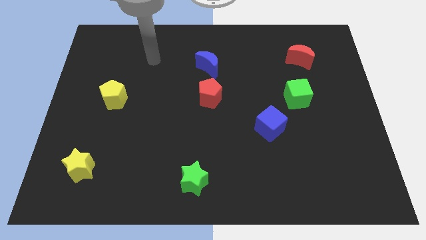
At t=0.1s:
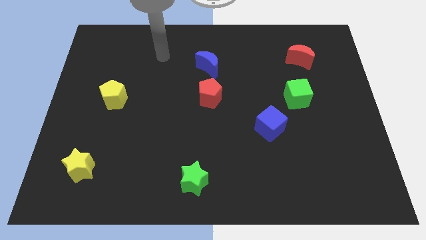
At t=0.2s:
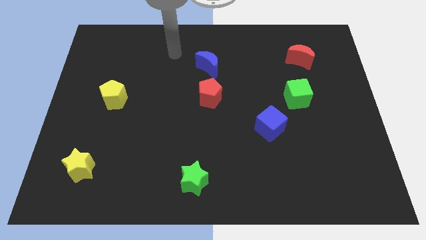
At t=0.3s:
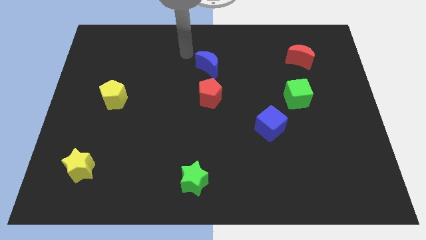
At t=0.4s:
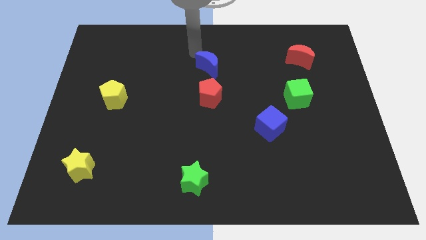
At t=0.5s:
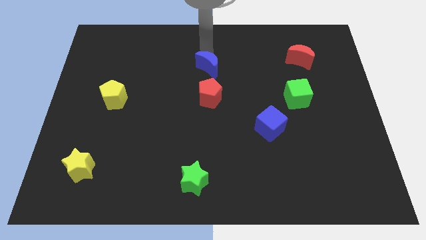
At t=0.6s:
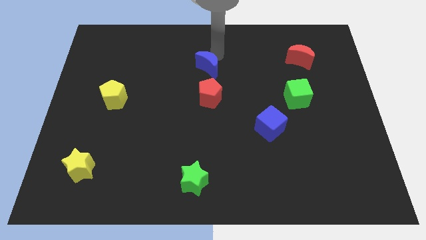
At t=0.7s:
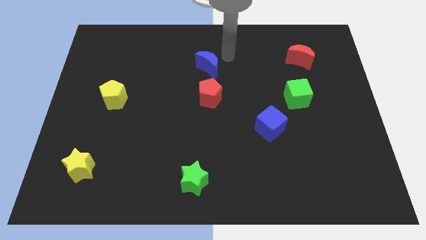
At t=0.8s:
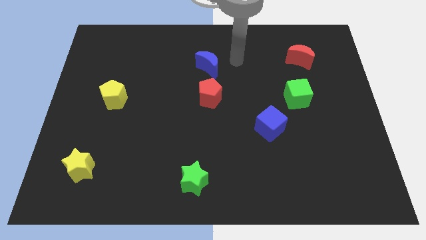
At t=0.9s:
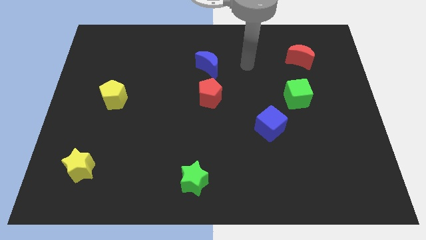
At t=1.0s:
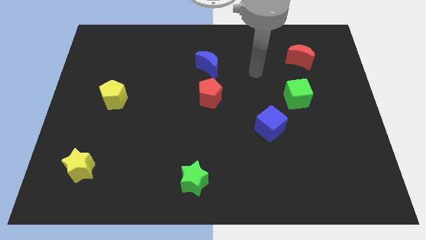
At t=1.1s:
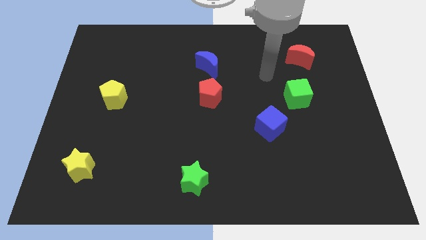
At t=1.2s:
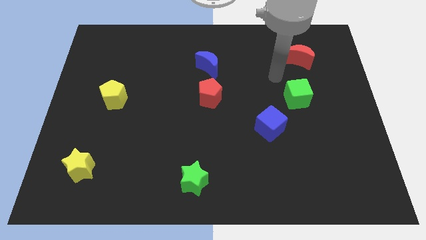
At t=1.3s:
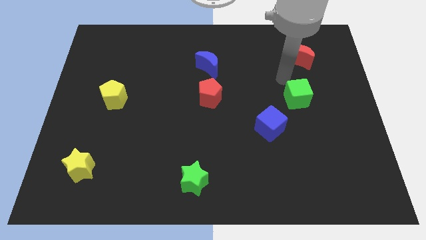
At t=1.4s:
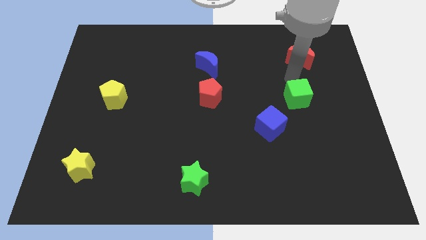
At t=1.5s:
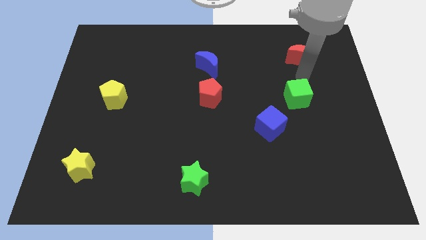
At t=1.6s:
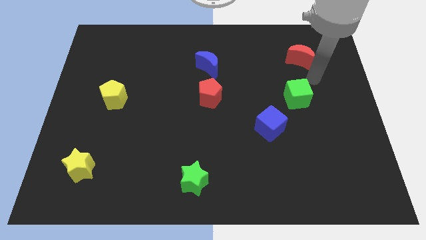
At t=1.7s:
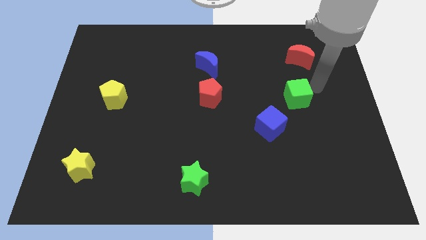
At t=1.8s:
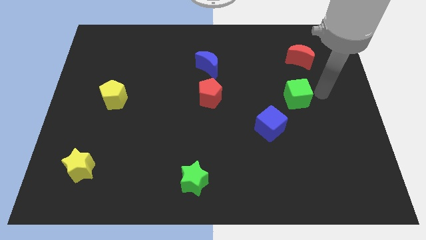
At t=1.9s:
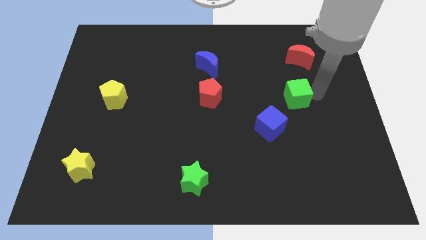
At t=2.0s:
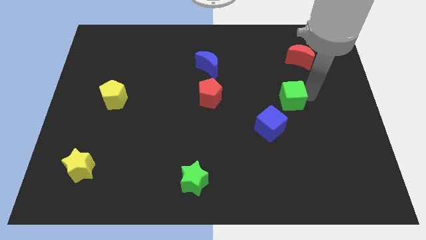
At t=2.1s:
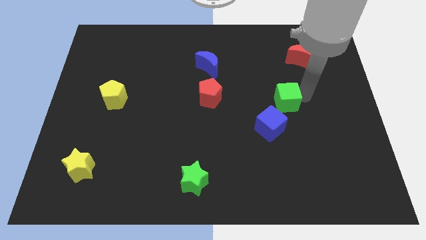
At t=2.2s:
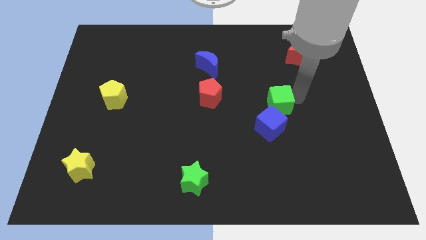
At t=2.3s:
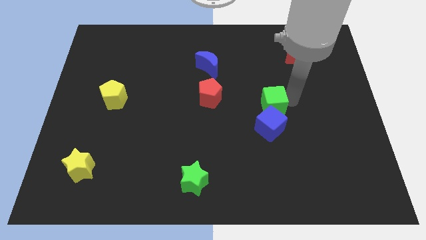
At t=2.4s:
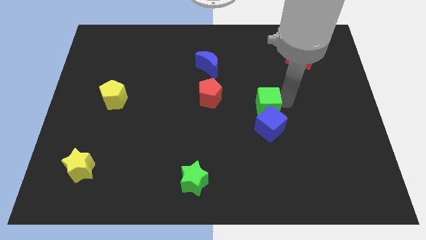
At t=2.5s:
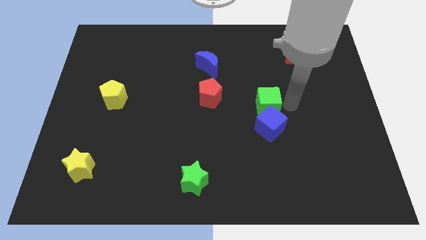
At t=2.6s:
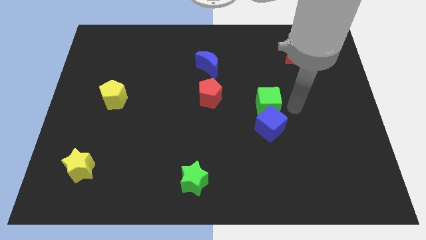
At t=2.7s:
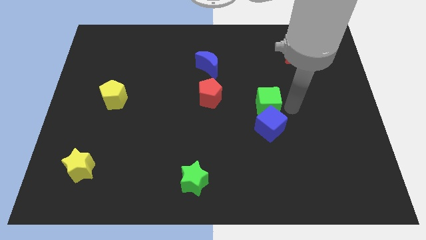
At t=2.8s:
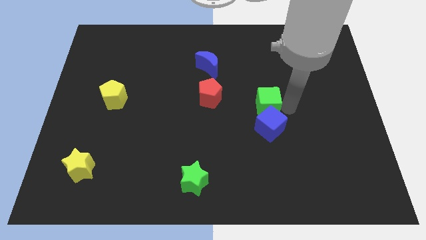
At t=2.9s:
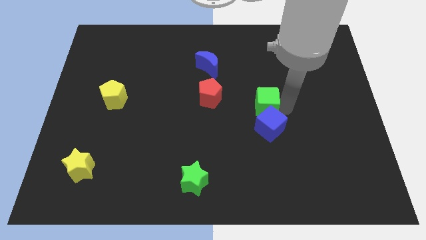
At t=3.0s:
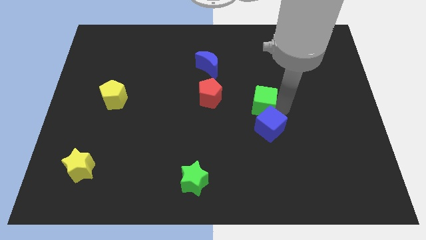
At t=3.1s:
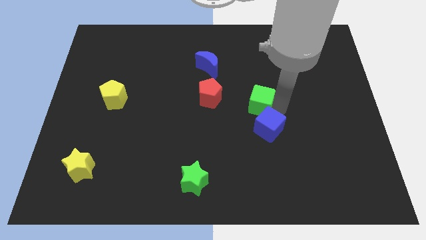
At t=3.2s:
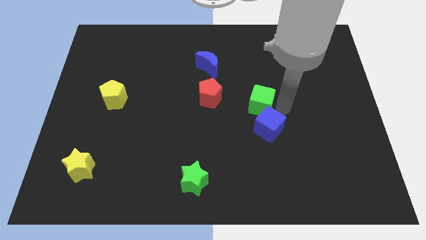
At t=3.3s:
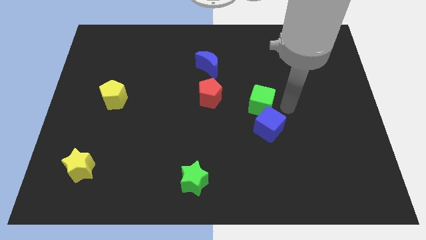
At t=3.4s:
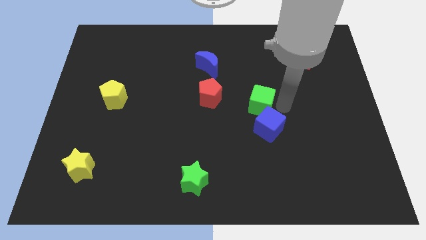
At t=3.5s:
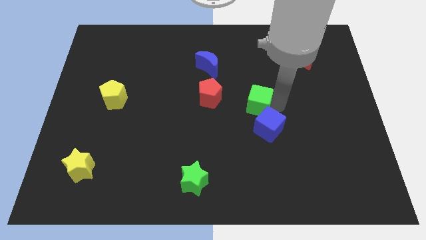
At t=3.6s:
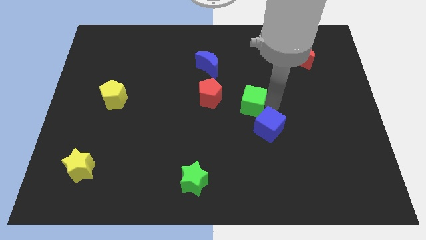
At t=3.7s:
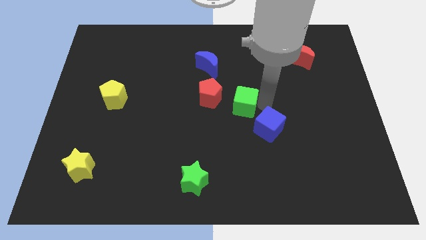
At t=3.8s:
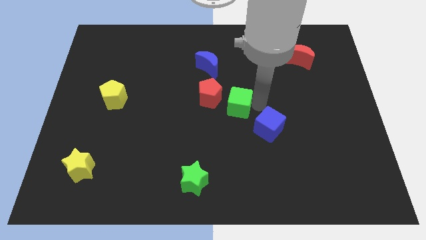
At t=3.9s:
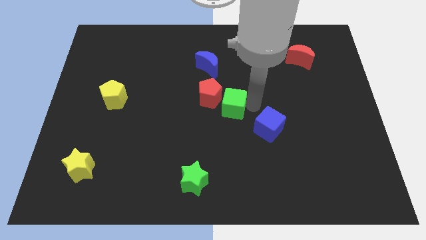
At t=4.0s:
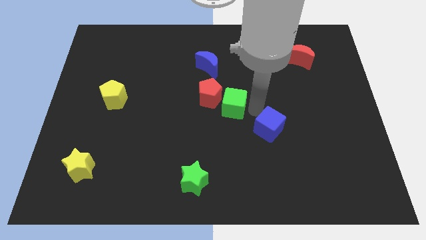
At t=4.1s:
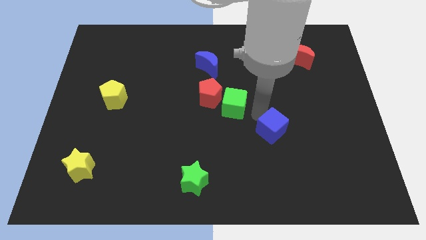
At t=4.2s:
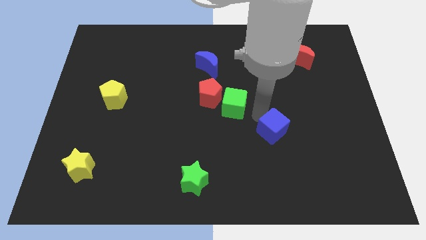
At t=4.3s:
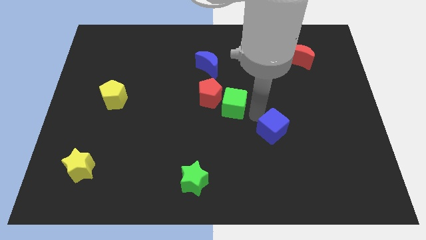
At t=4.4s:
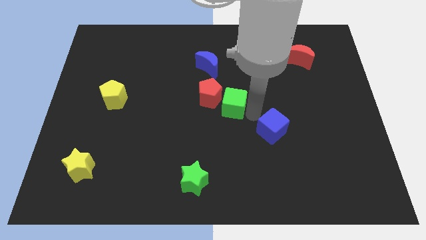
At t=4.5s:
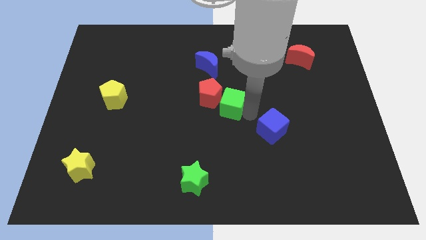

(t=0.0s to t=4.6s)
move the green cube towards the red pentagon

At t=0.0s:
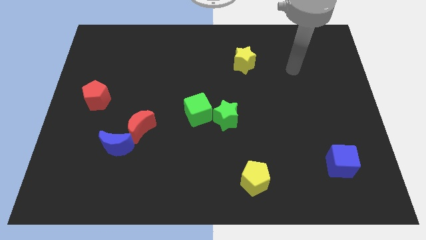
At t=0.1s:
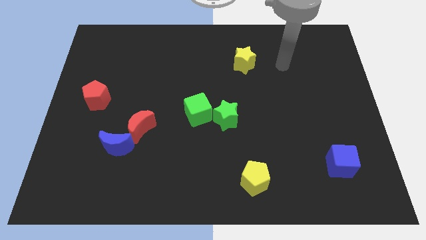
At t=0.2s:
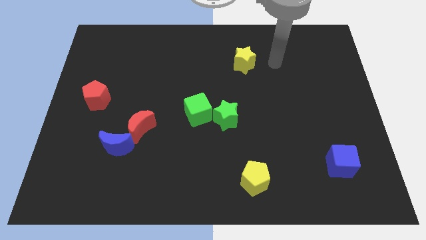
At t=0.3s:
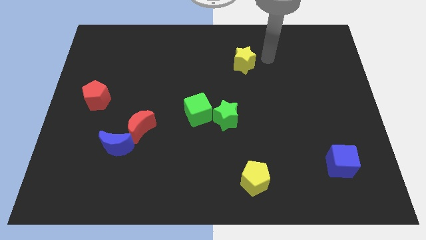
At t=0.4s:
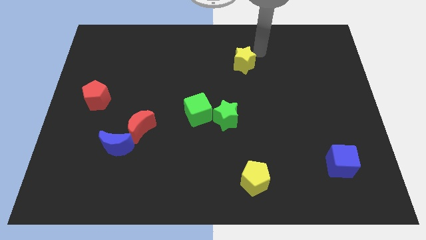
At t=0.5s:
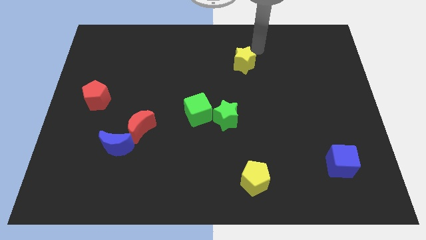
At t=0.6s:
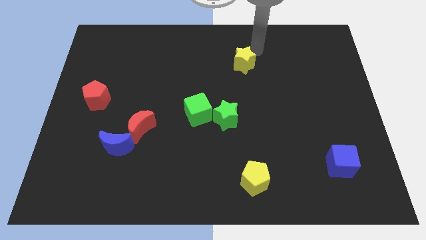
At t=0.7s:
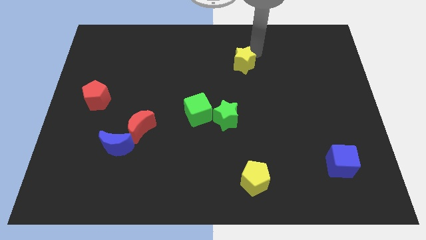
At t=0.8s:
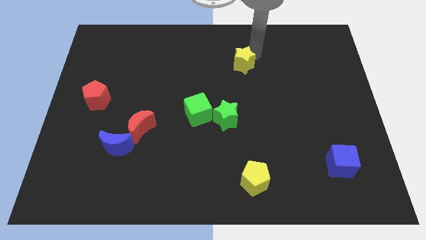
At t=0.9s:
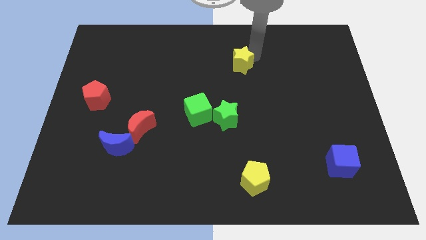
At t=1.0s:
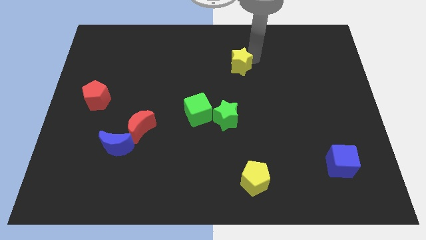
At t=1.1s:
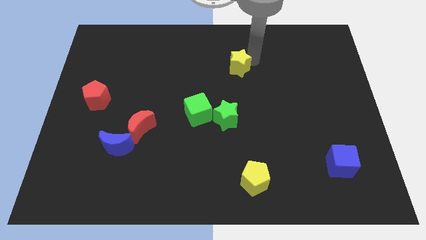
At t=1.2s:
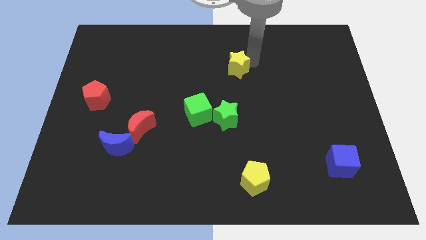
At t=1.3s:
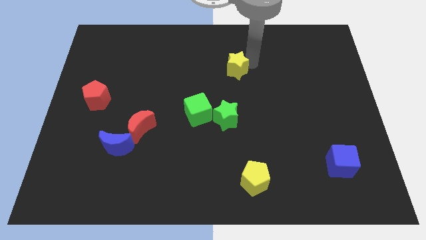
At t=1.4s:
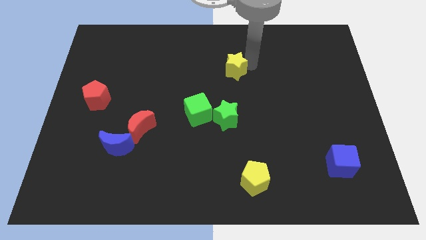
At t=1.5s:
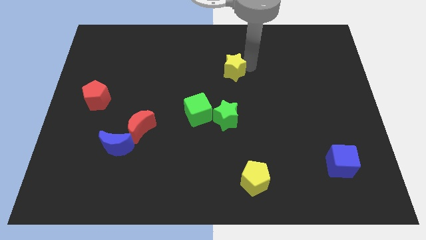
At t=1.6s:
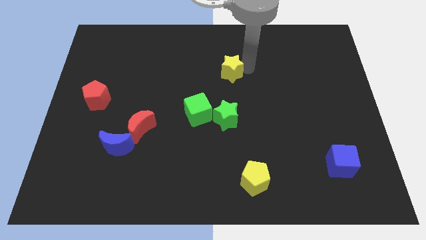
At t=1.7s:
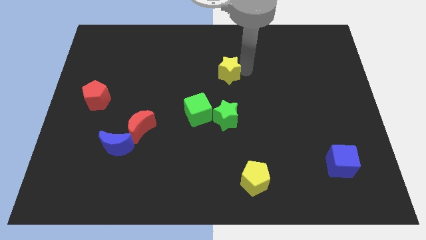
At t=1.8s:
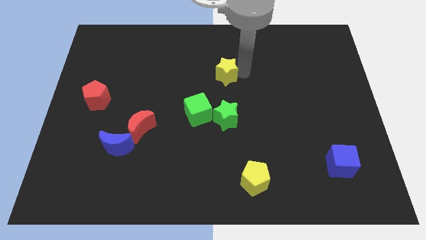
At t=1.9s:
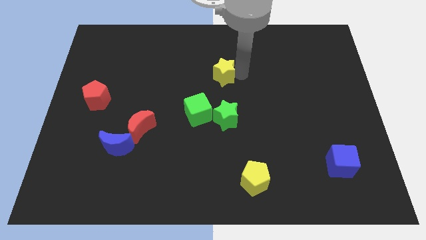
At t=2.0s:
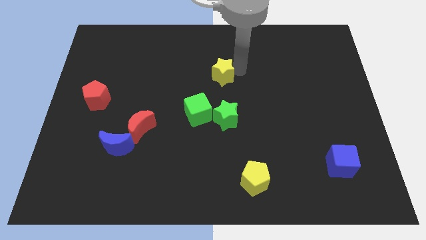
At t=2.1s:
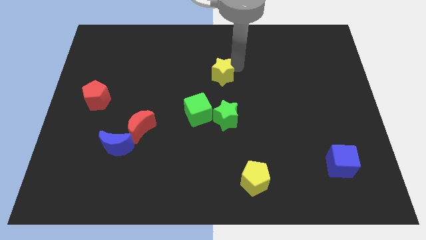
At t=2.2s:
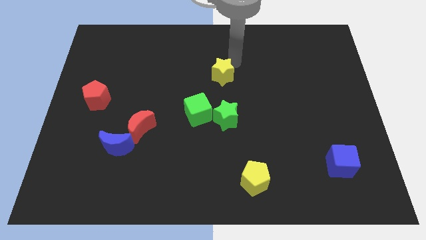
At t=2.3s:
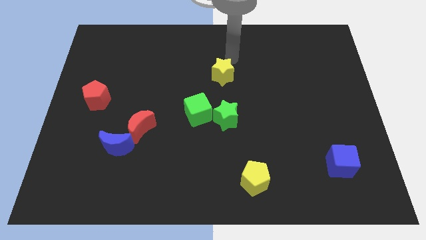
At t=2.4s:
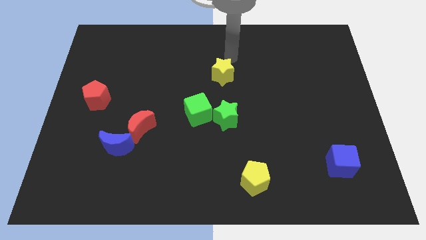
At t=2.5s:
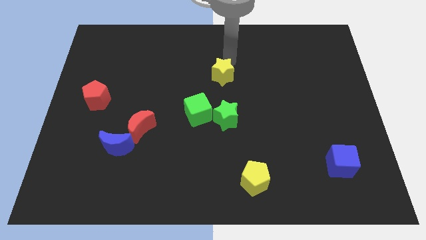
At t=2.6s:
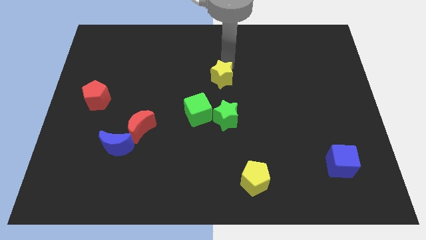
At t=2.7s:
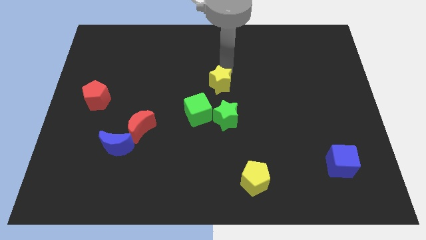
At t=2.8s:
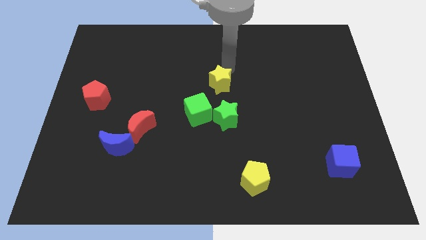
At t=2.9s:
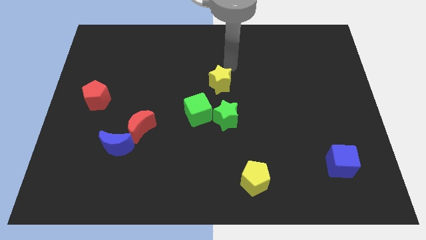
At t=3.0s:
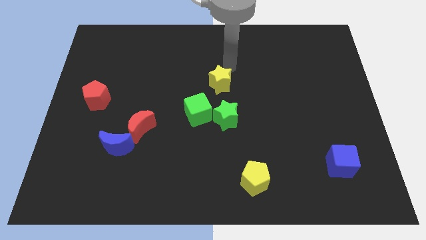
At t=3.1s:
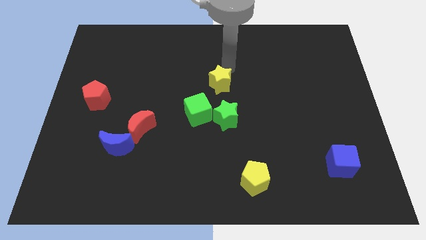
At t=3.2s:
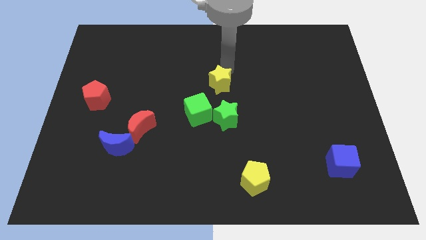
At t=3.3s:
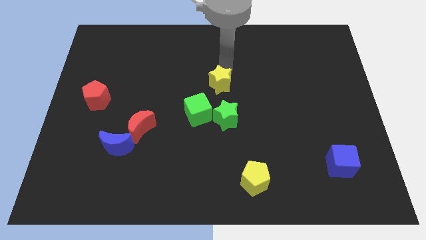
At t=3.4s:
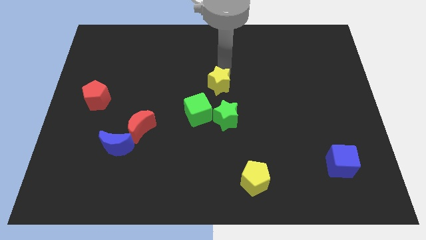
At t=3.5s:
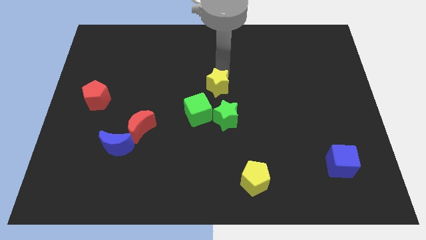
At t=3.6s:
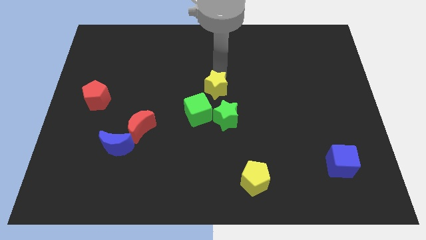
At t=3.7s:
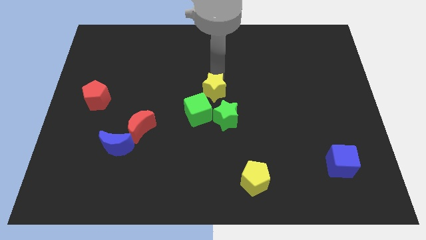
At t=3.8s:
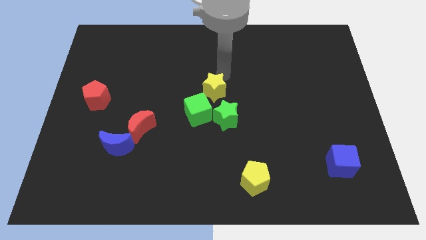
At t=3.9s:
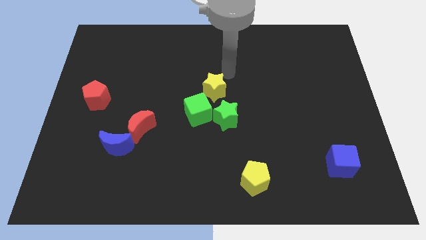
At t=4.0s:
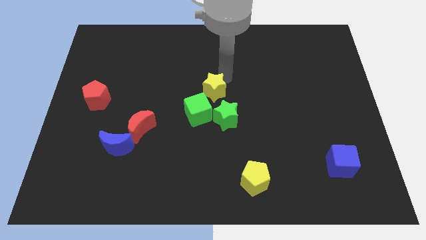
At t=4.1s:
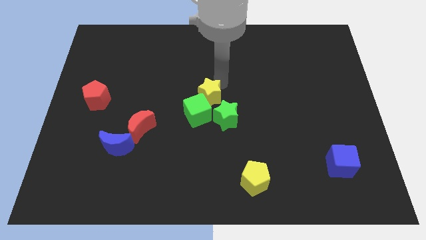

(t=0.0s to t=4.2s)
push the yellow star next to the green cube
